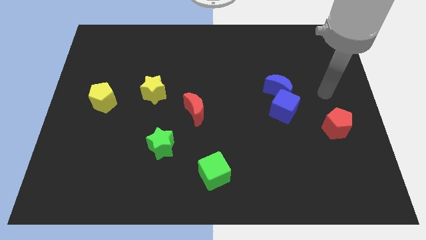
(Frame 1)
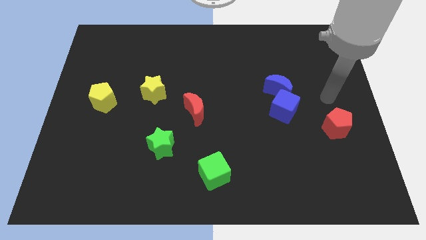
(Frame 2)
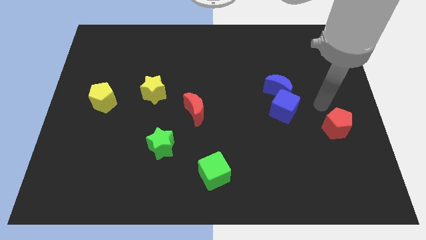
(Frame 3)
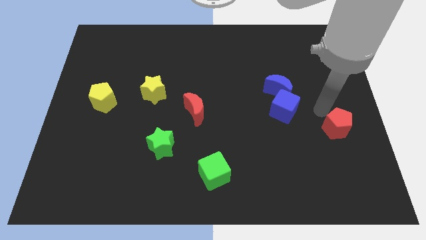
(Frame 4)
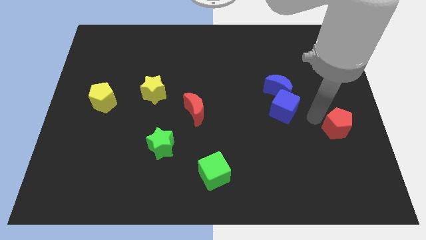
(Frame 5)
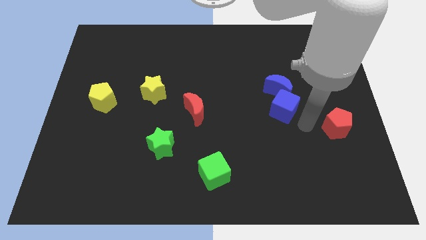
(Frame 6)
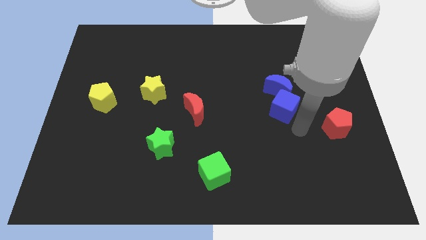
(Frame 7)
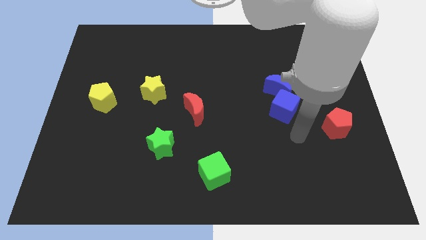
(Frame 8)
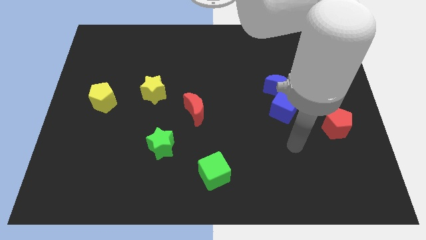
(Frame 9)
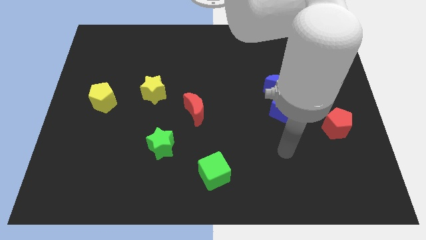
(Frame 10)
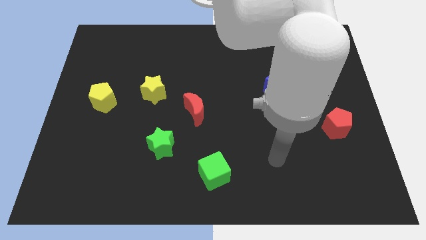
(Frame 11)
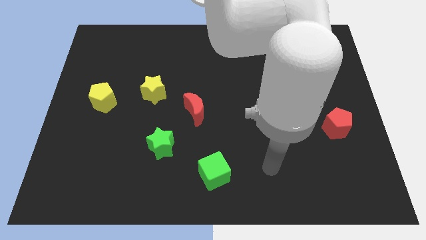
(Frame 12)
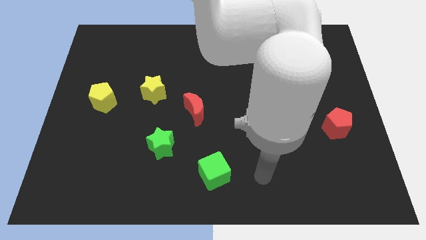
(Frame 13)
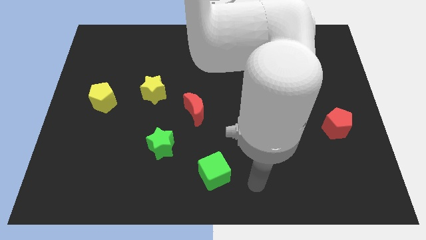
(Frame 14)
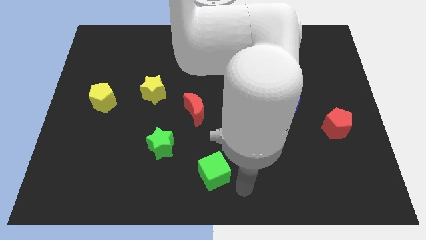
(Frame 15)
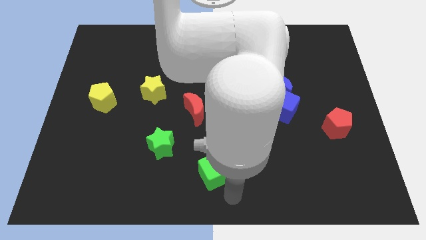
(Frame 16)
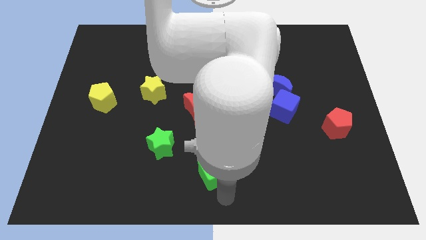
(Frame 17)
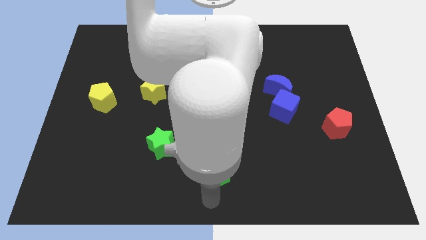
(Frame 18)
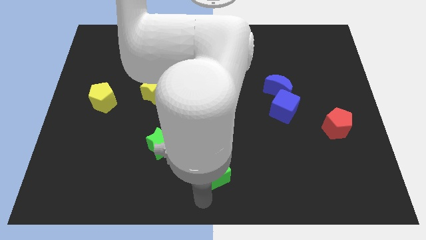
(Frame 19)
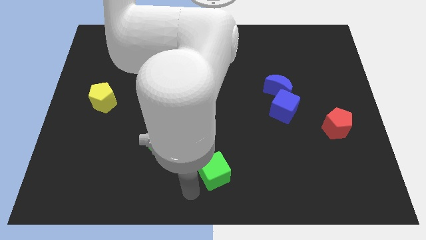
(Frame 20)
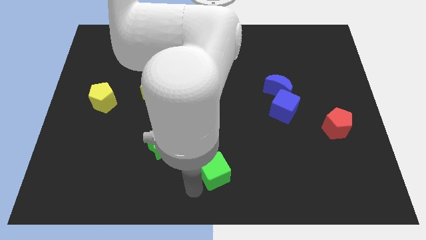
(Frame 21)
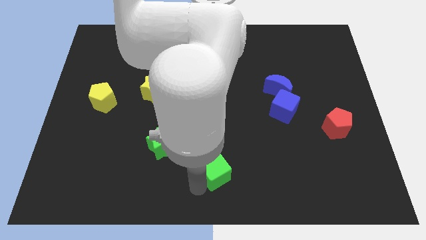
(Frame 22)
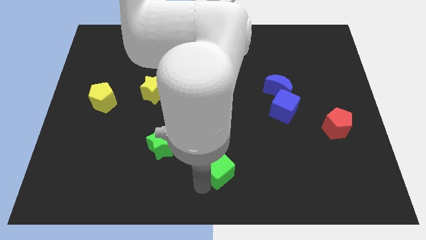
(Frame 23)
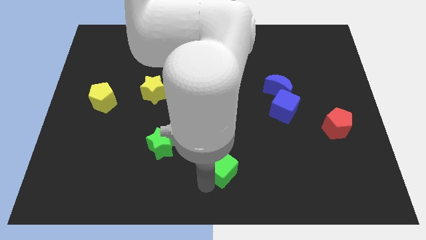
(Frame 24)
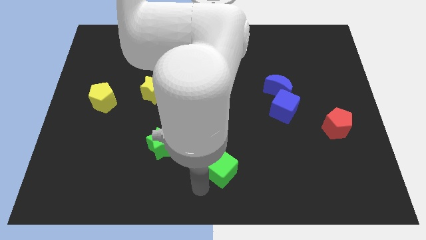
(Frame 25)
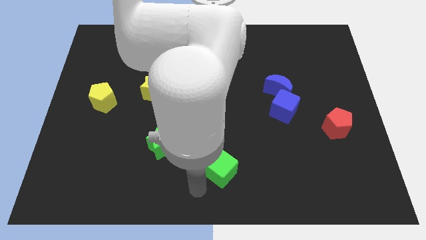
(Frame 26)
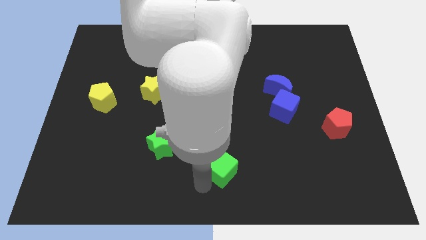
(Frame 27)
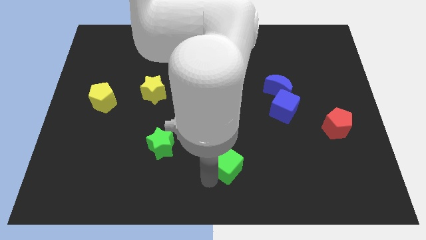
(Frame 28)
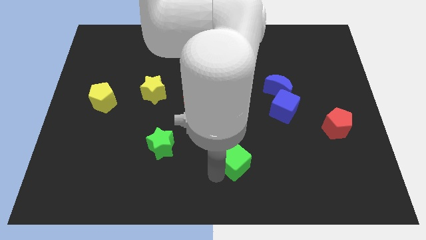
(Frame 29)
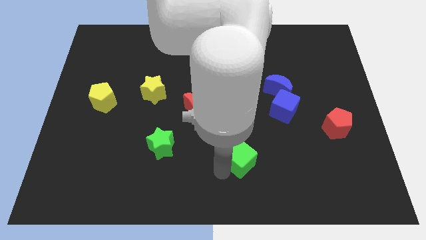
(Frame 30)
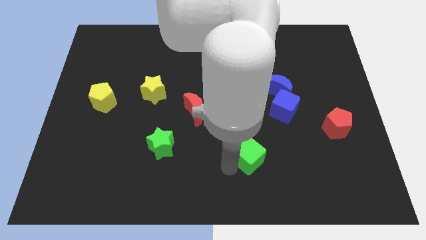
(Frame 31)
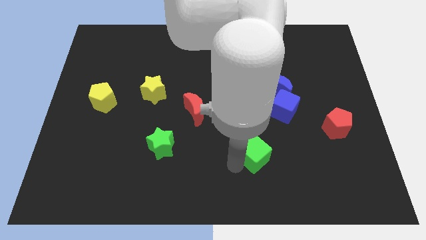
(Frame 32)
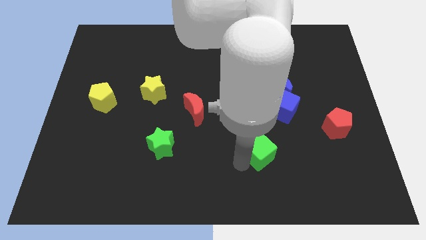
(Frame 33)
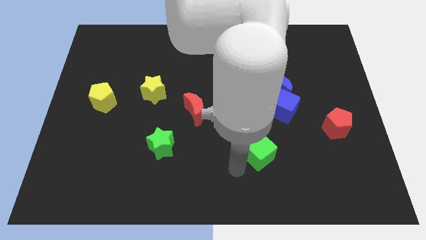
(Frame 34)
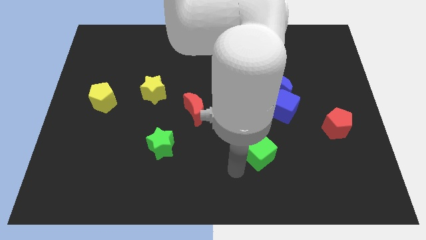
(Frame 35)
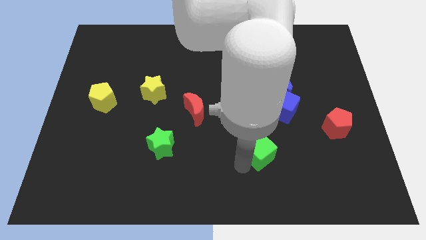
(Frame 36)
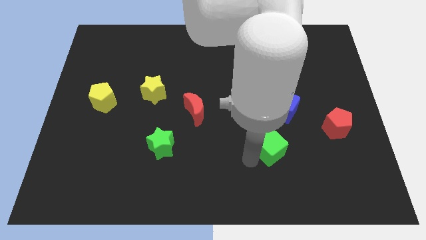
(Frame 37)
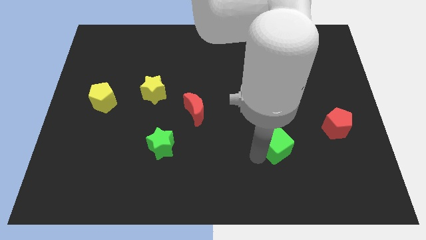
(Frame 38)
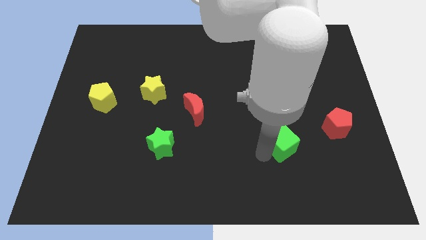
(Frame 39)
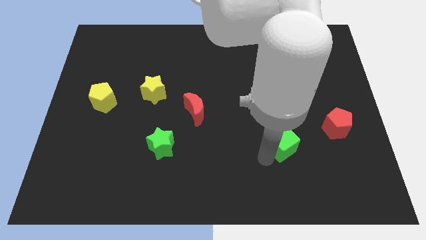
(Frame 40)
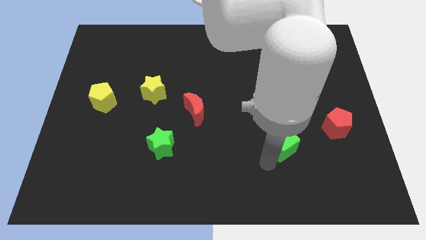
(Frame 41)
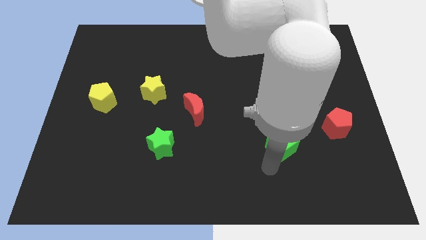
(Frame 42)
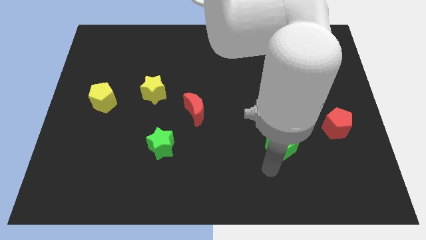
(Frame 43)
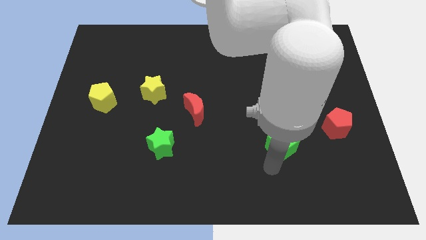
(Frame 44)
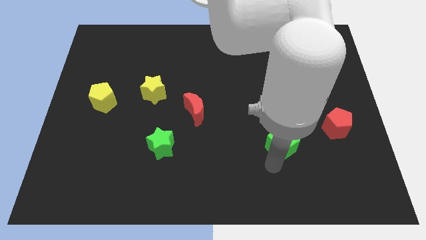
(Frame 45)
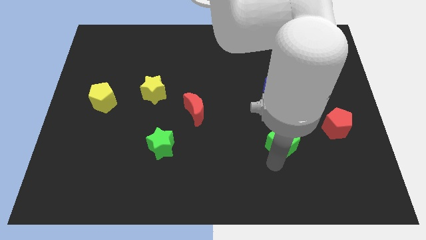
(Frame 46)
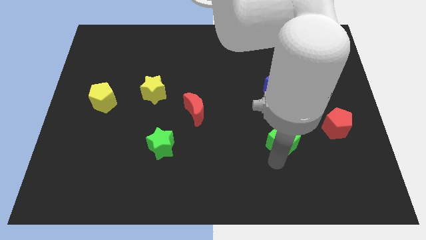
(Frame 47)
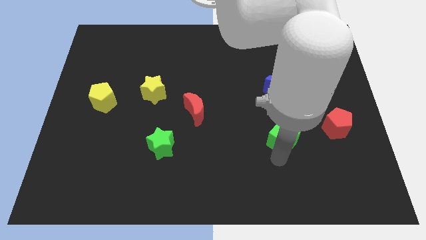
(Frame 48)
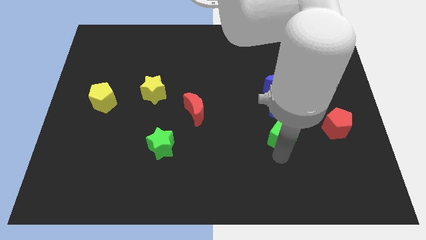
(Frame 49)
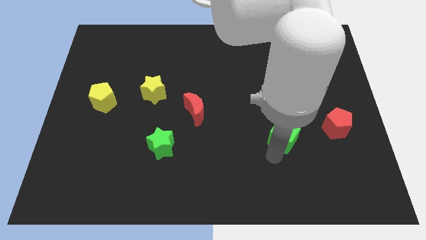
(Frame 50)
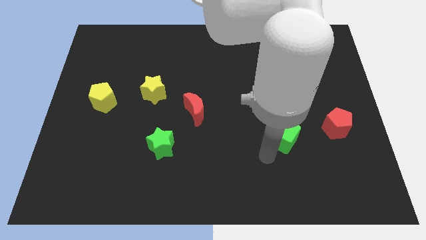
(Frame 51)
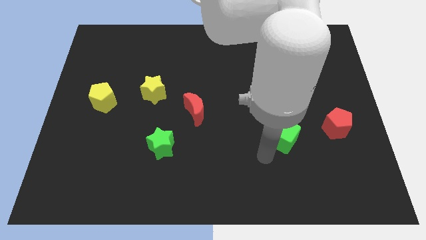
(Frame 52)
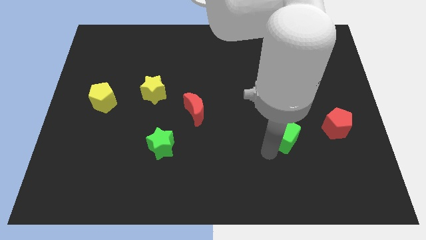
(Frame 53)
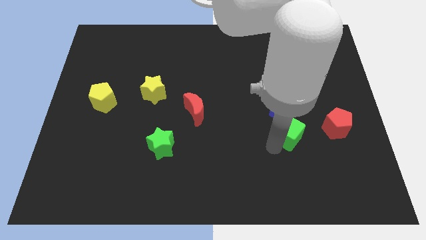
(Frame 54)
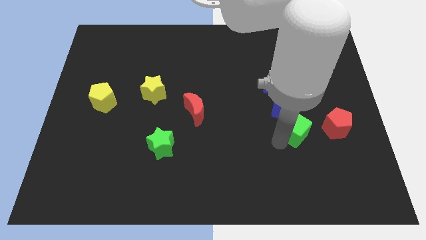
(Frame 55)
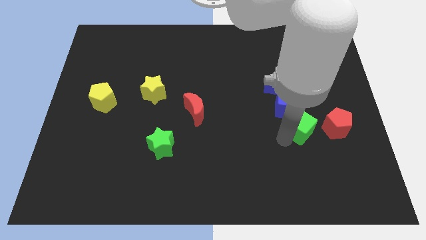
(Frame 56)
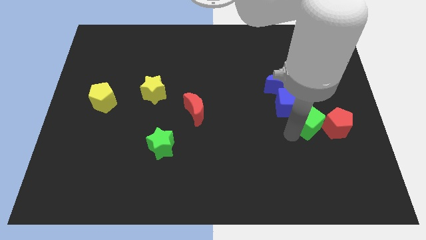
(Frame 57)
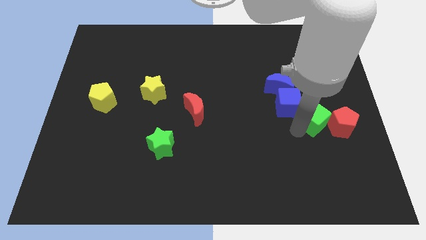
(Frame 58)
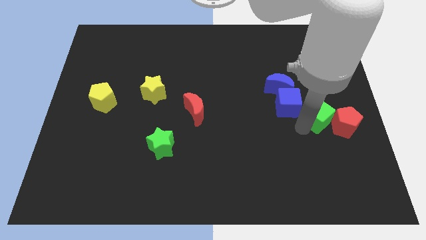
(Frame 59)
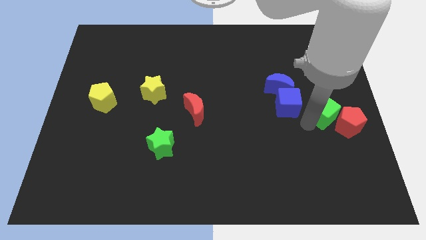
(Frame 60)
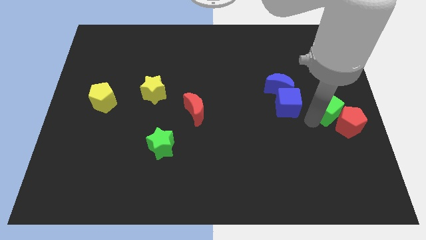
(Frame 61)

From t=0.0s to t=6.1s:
slide the green cube to the right side
